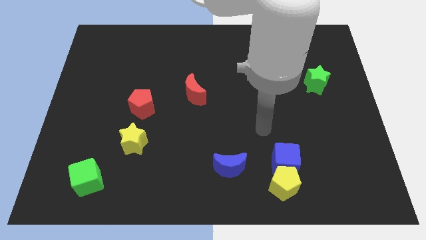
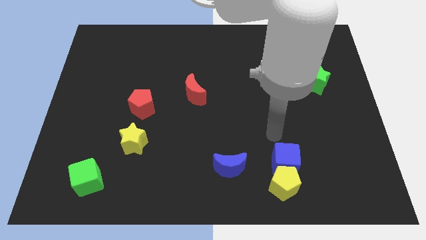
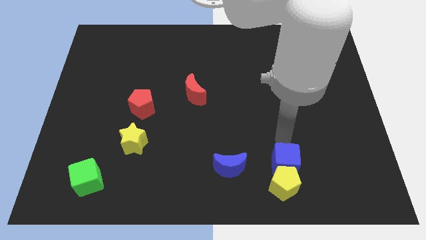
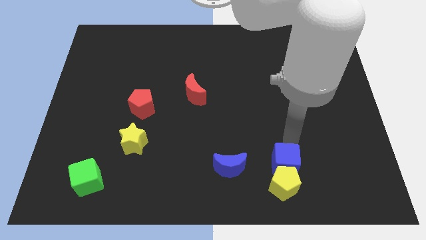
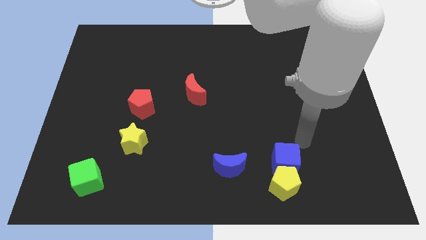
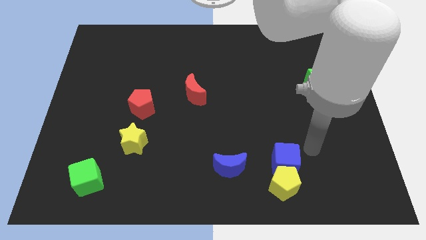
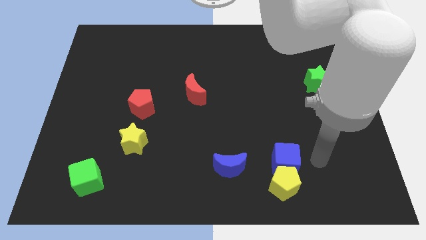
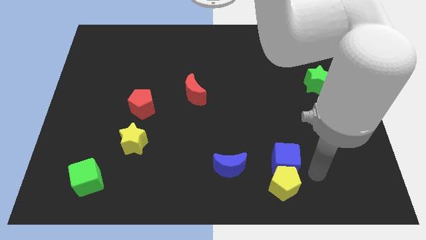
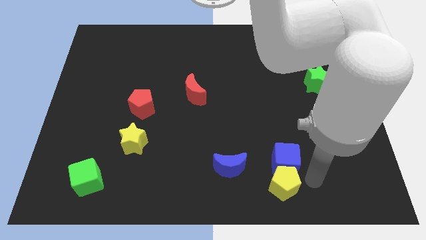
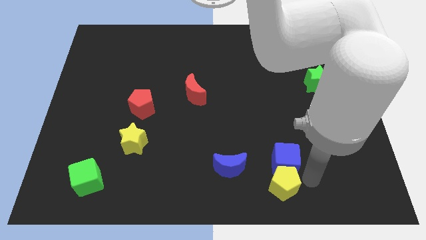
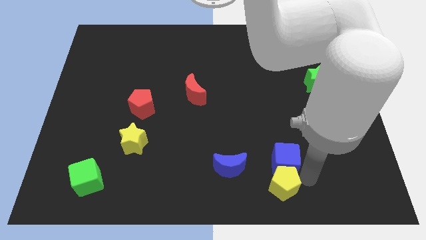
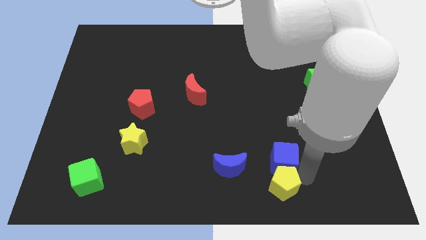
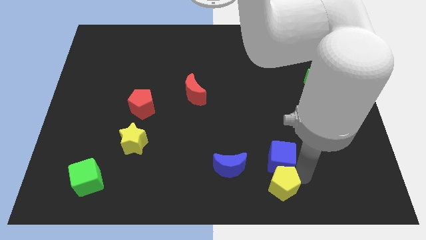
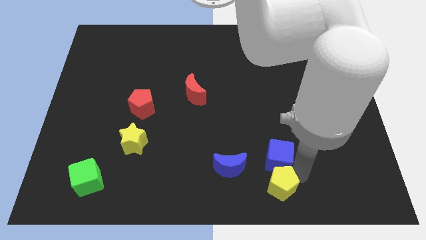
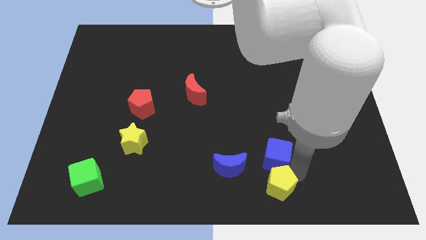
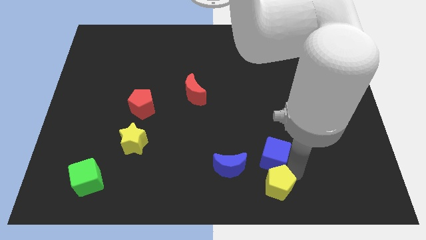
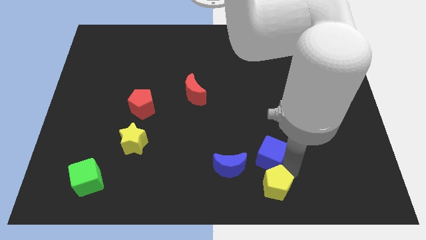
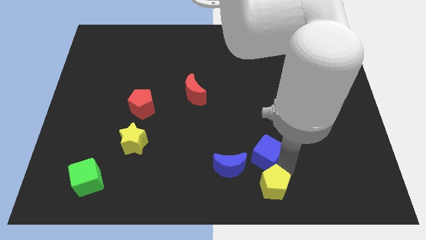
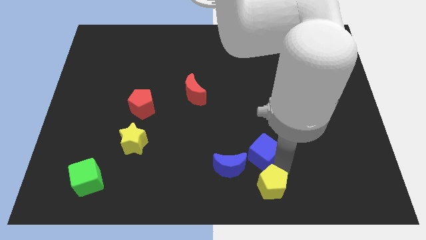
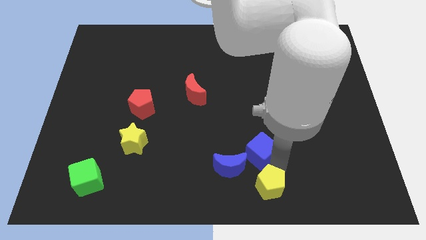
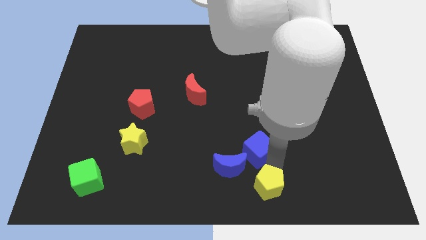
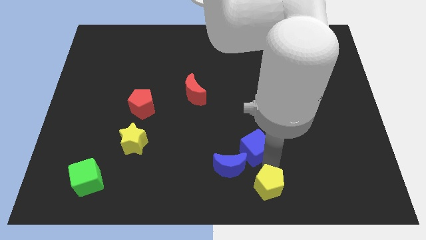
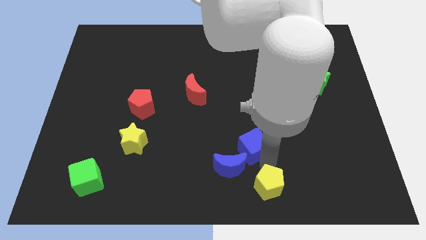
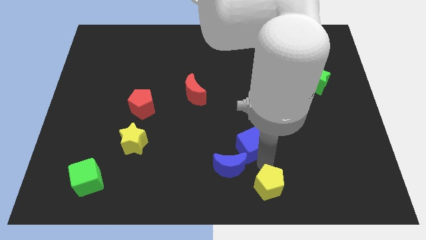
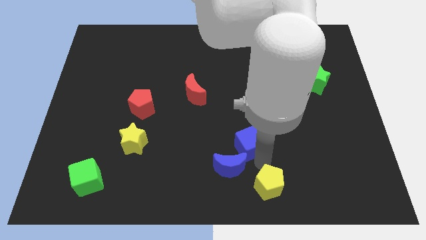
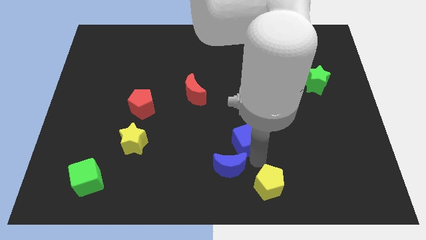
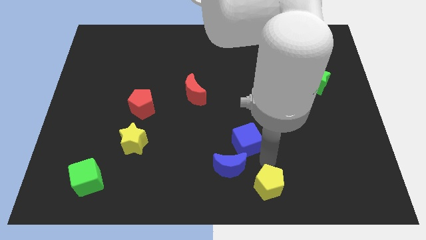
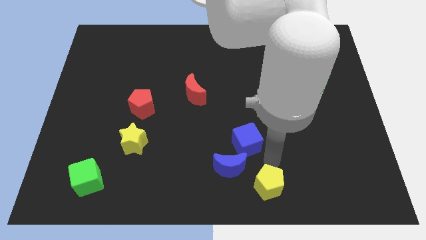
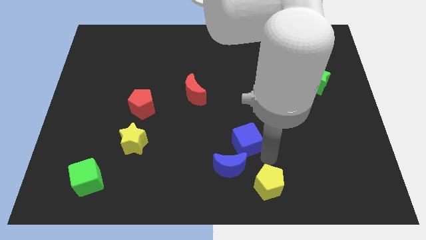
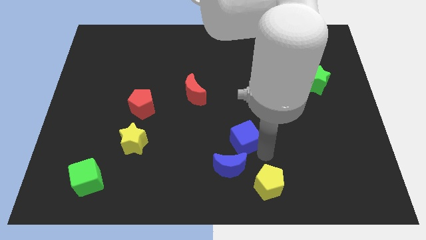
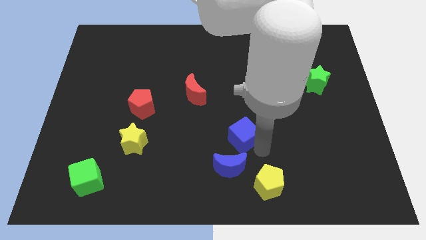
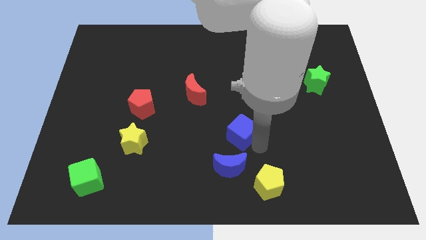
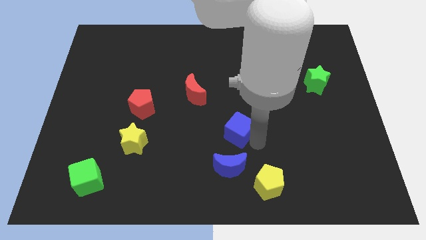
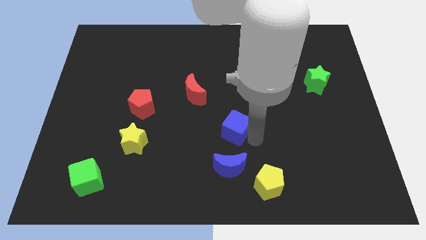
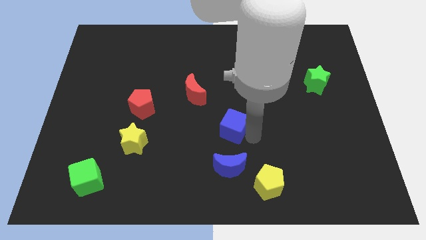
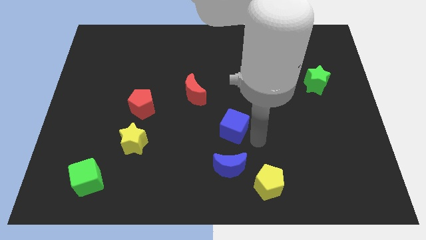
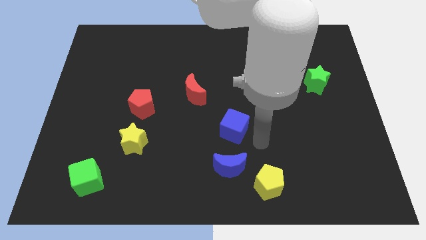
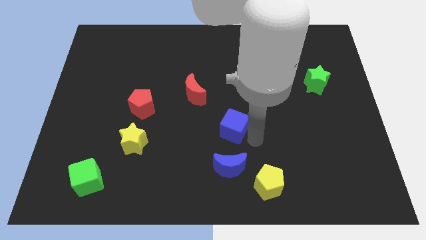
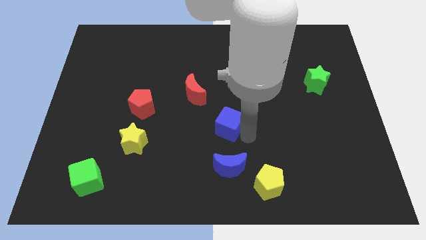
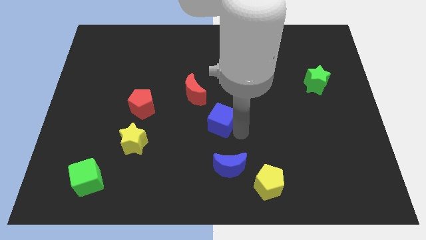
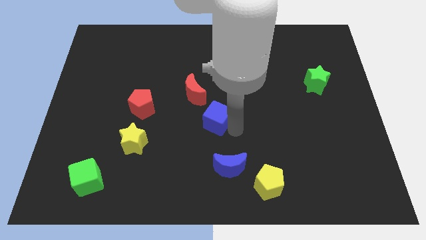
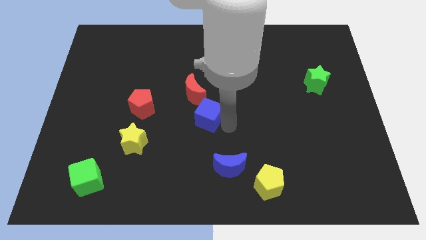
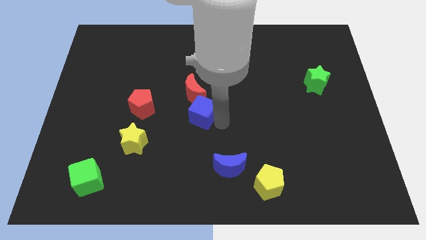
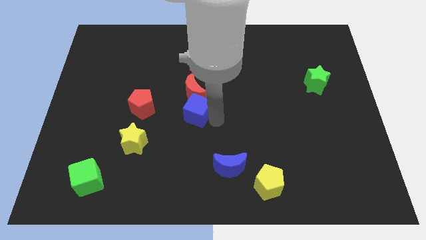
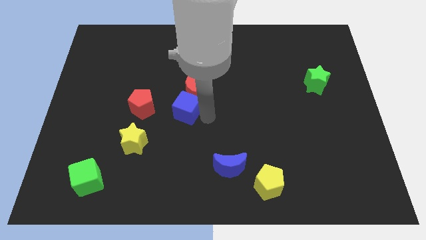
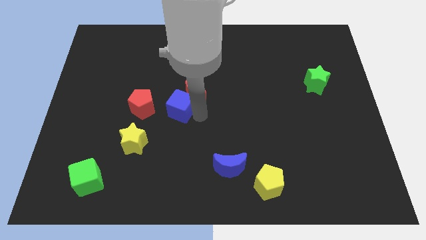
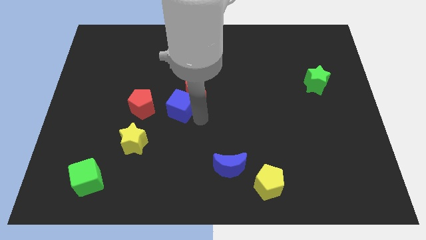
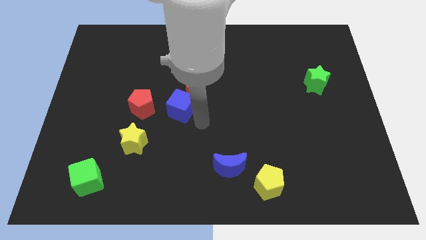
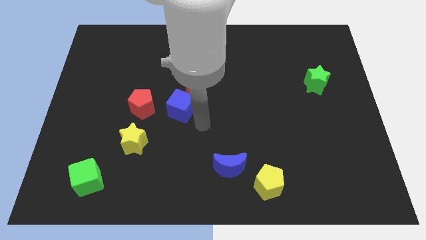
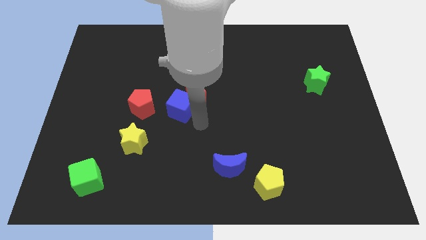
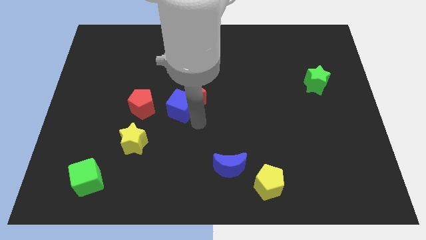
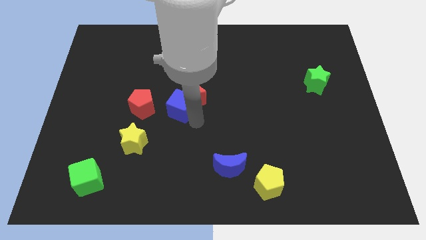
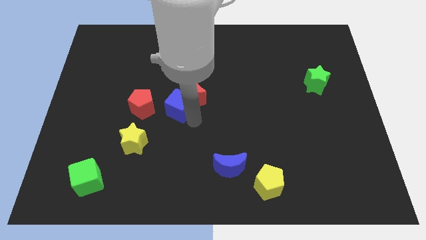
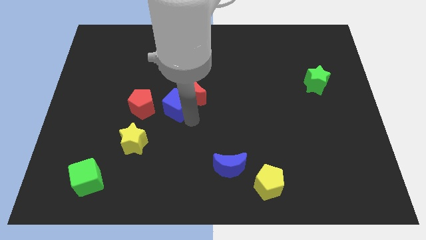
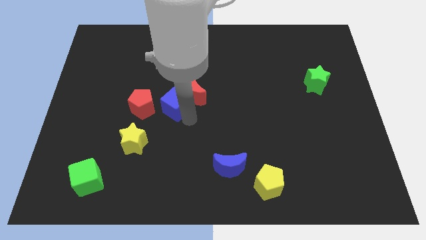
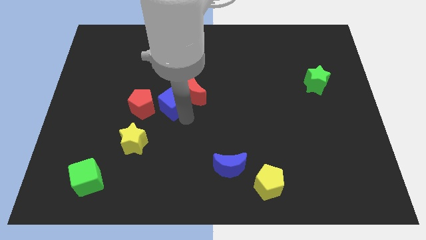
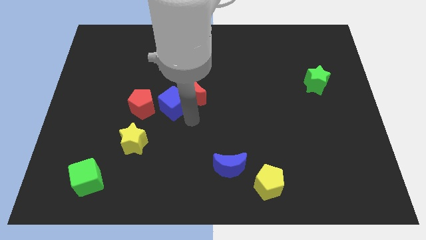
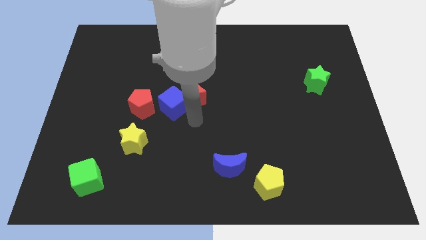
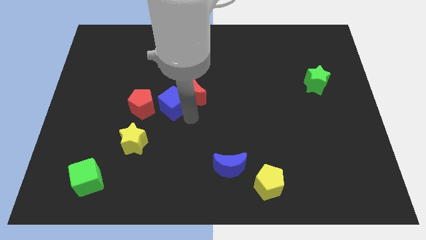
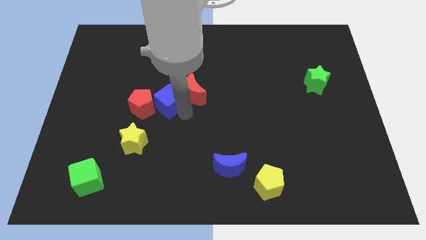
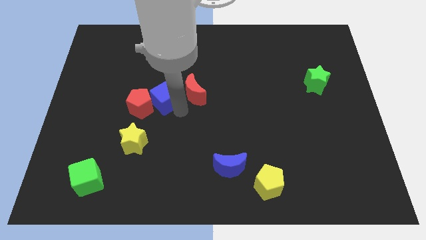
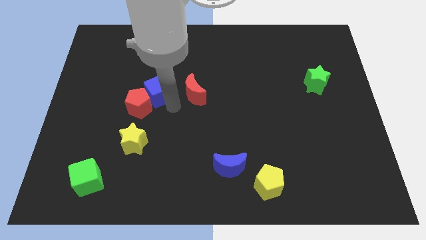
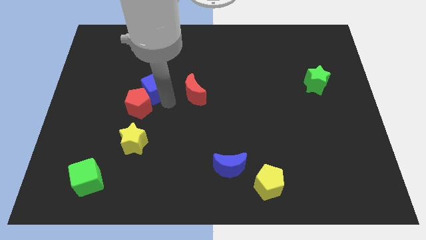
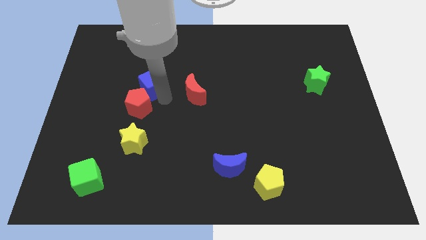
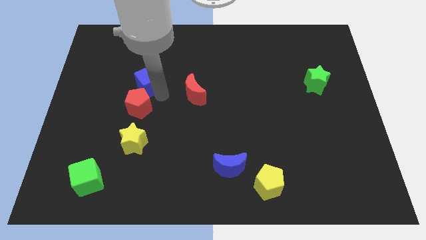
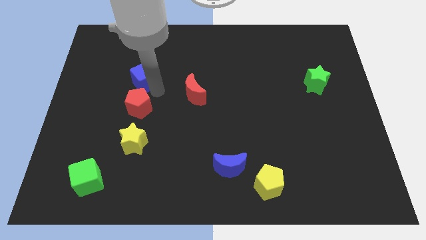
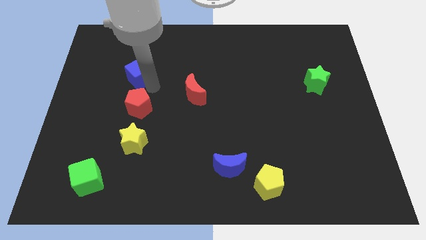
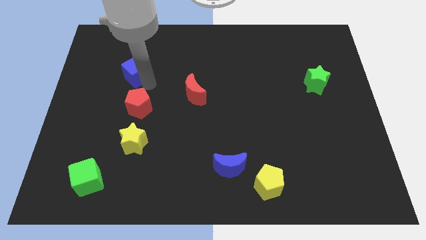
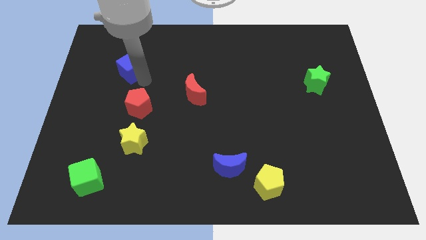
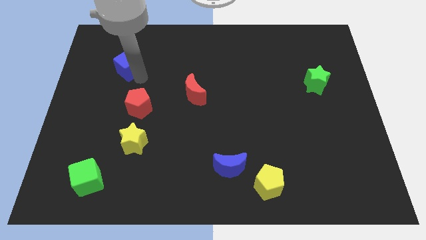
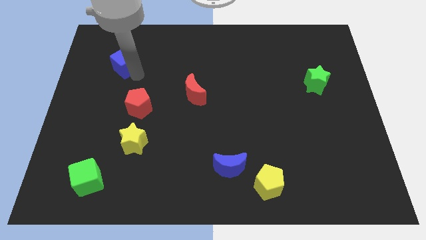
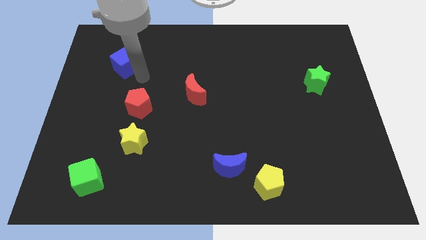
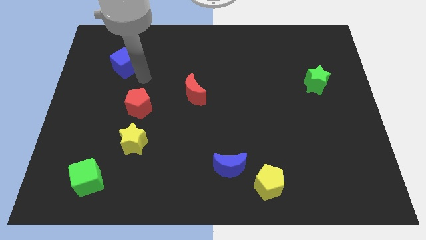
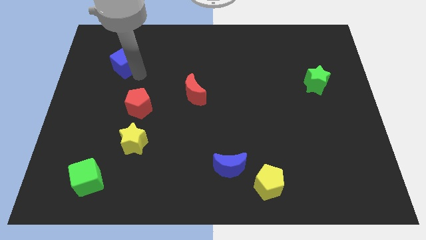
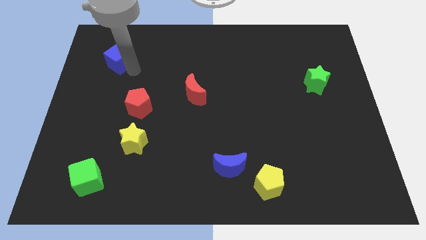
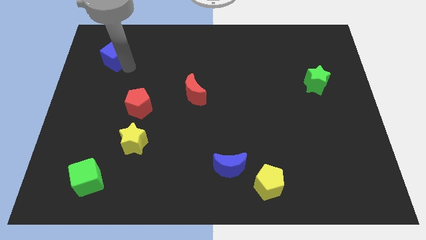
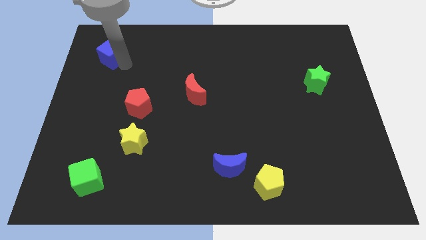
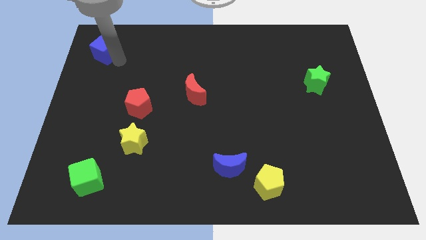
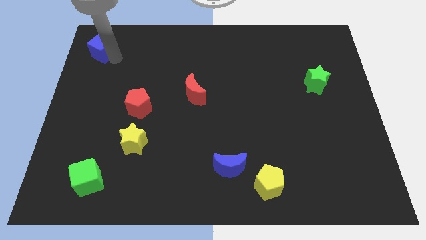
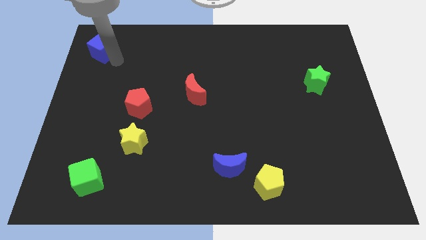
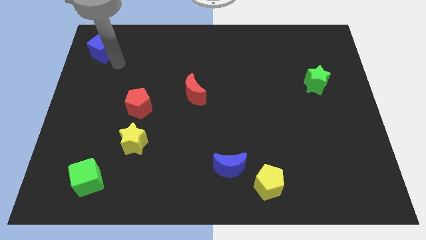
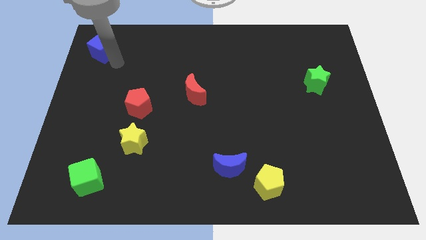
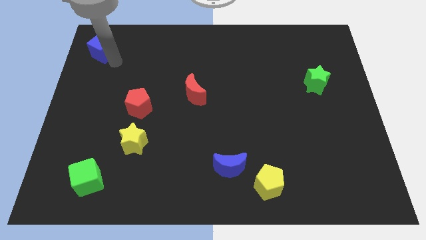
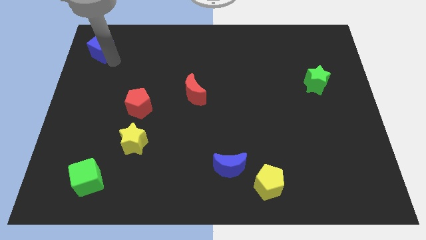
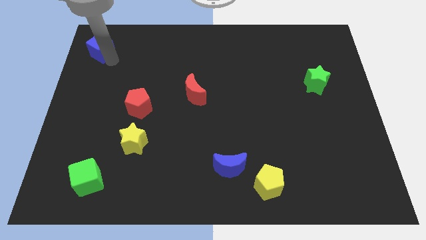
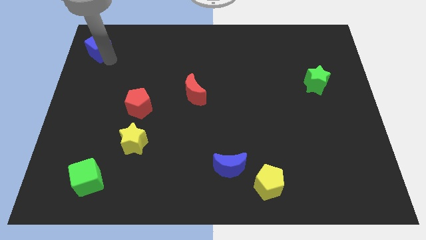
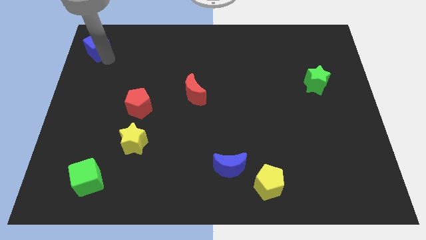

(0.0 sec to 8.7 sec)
put the blue cube to the top left
